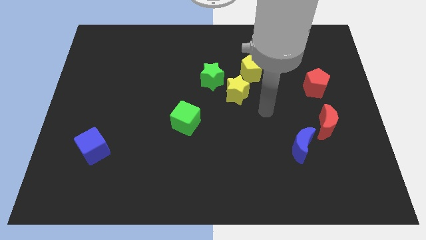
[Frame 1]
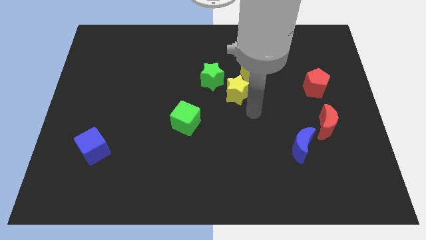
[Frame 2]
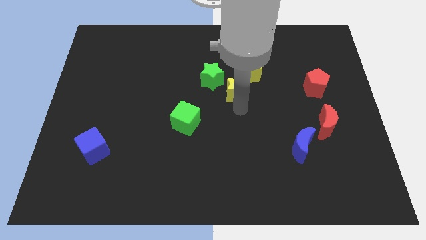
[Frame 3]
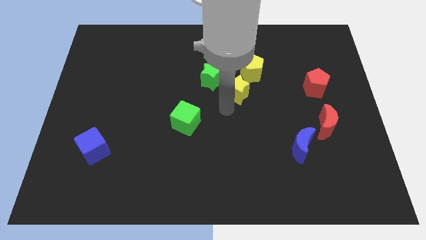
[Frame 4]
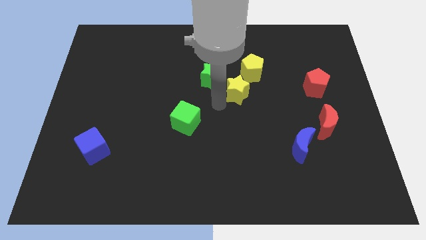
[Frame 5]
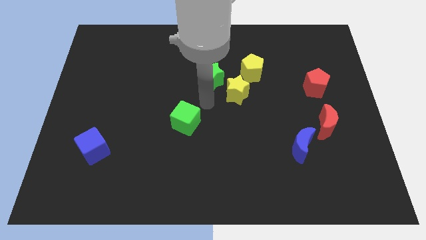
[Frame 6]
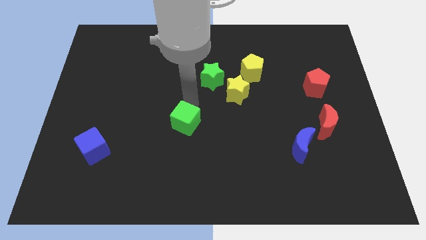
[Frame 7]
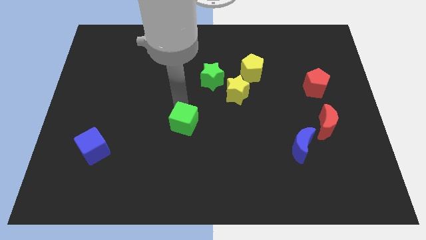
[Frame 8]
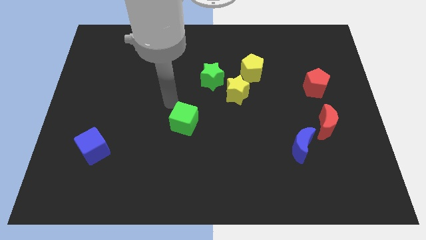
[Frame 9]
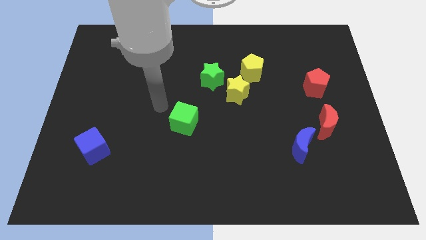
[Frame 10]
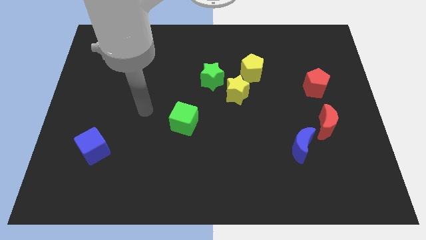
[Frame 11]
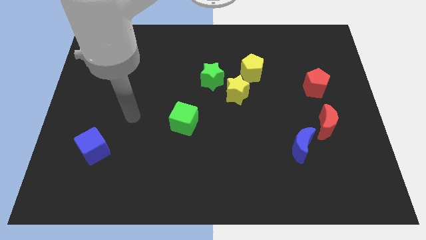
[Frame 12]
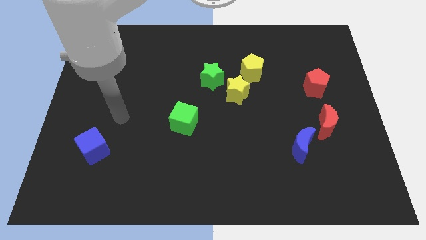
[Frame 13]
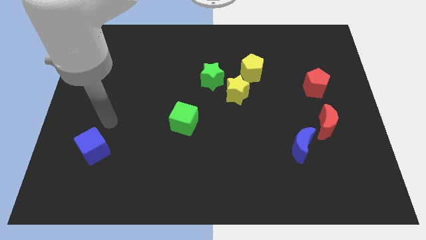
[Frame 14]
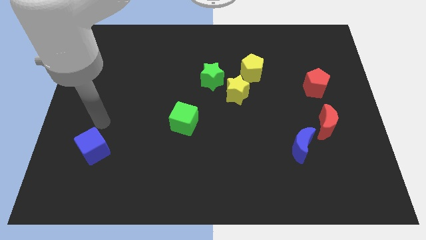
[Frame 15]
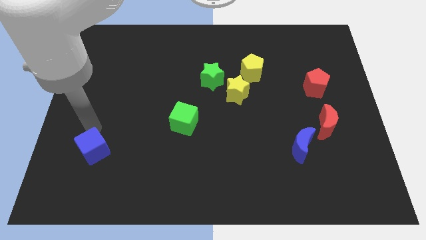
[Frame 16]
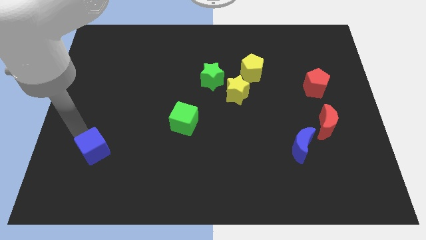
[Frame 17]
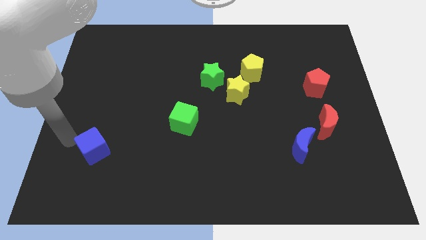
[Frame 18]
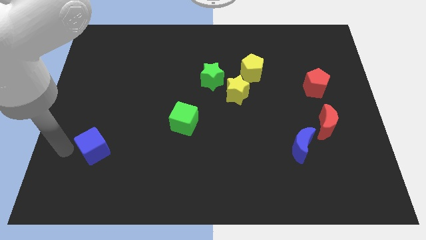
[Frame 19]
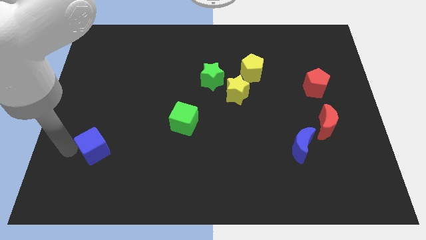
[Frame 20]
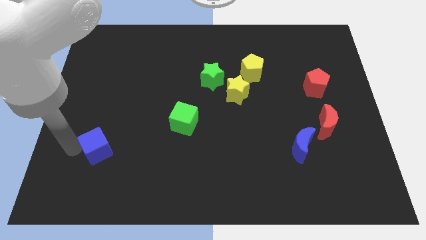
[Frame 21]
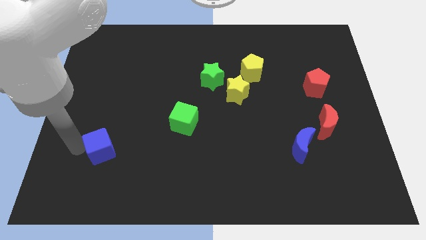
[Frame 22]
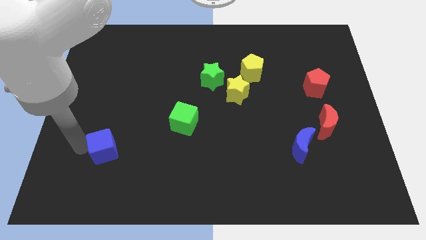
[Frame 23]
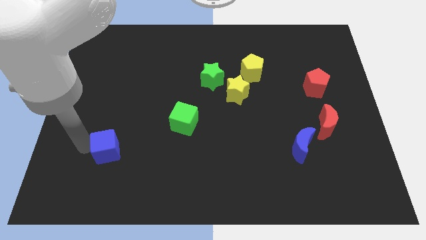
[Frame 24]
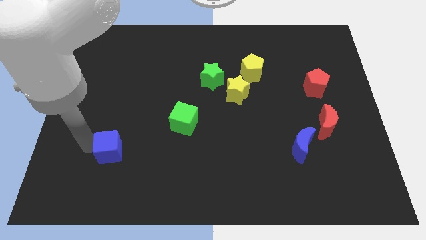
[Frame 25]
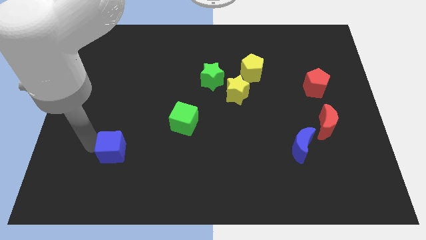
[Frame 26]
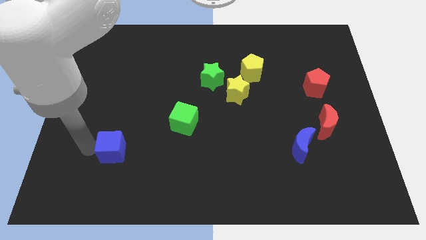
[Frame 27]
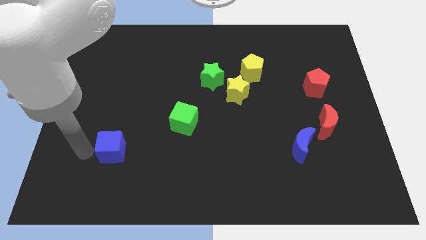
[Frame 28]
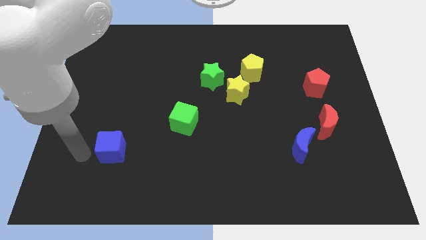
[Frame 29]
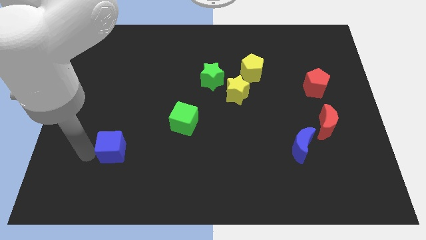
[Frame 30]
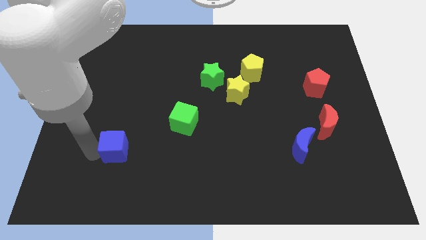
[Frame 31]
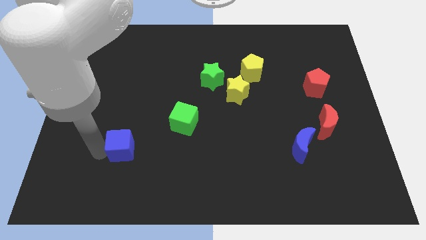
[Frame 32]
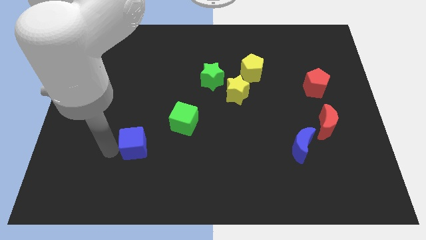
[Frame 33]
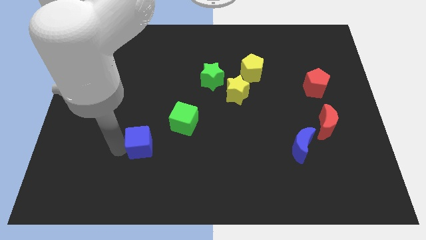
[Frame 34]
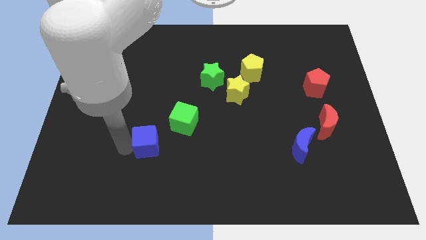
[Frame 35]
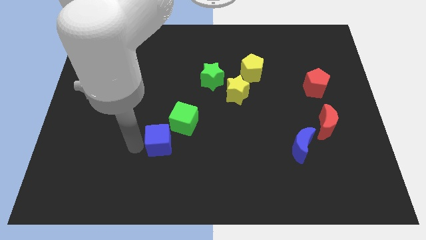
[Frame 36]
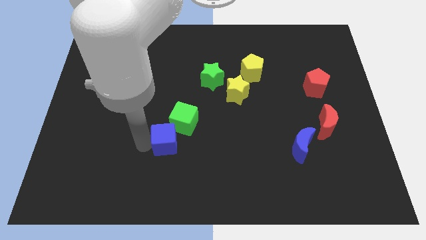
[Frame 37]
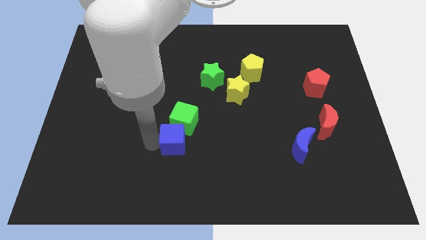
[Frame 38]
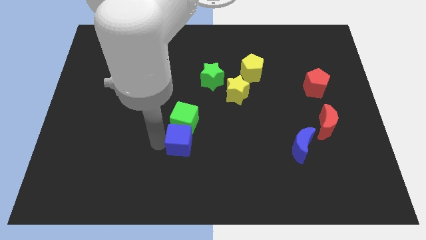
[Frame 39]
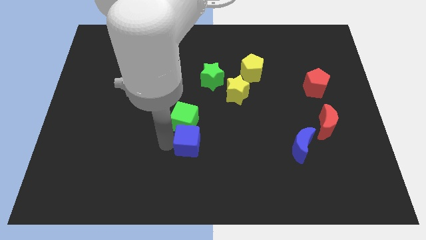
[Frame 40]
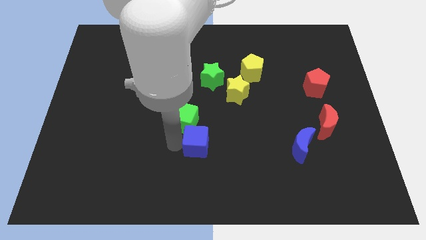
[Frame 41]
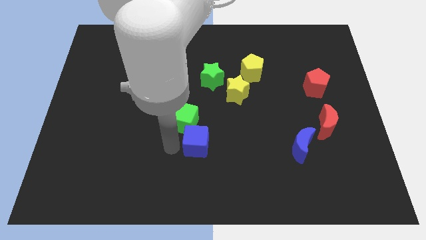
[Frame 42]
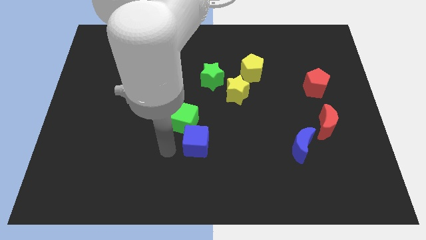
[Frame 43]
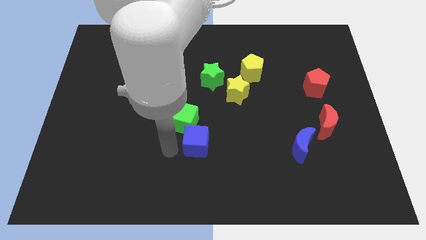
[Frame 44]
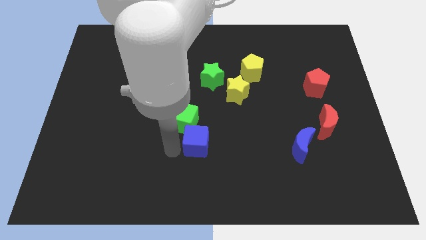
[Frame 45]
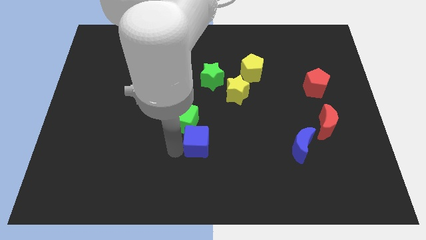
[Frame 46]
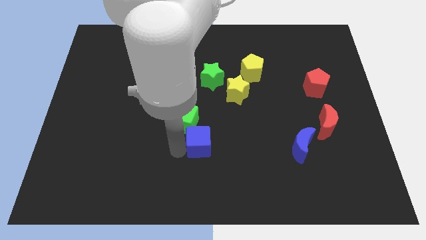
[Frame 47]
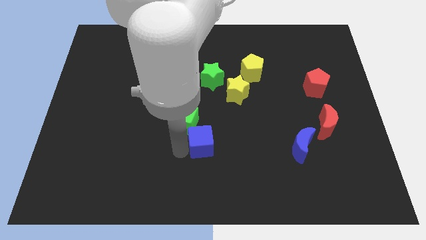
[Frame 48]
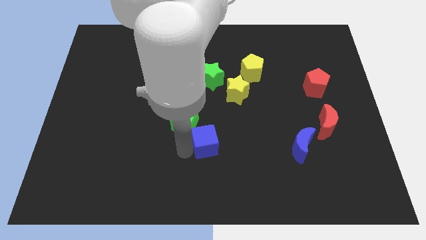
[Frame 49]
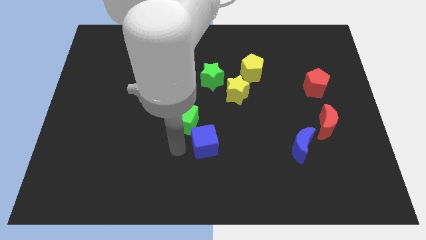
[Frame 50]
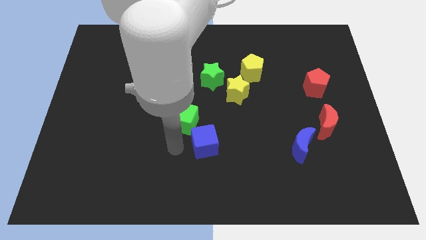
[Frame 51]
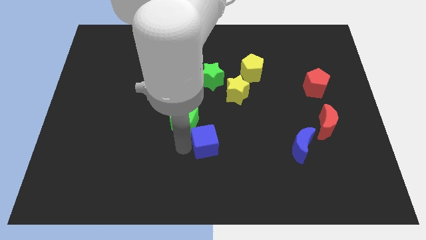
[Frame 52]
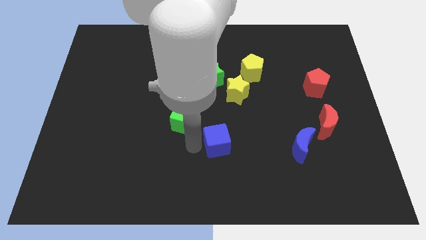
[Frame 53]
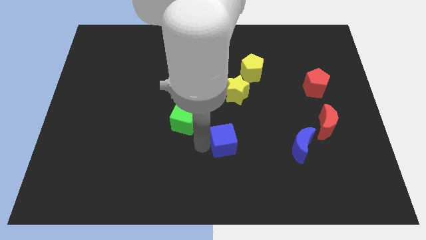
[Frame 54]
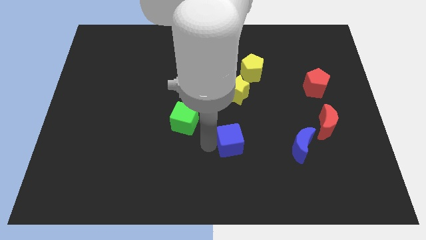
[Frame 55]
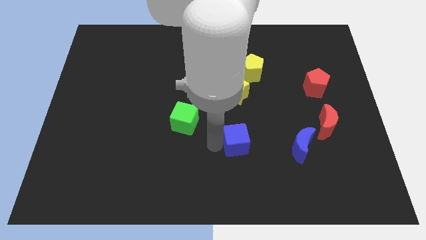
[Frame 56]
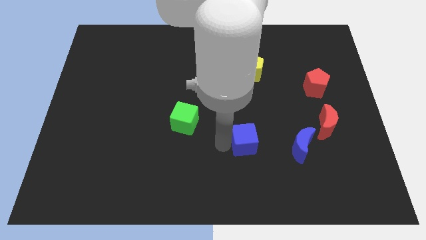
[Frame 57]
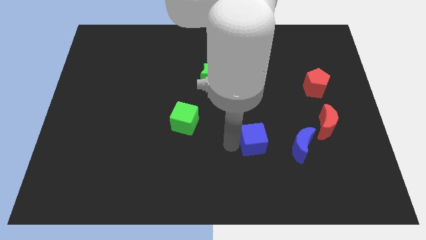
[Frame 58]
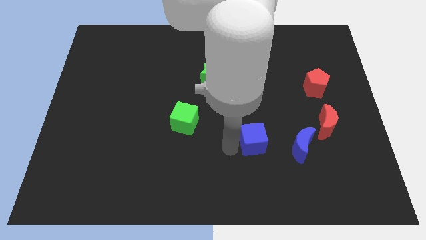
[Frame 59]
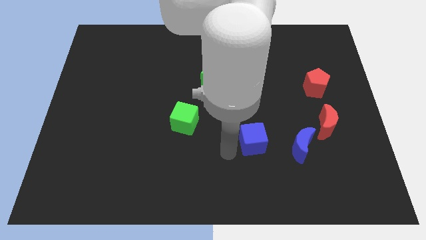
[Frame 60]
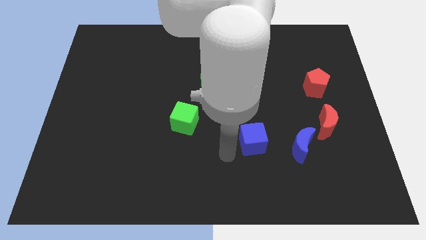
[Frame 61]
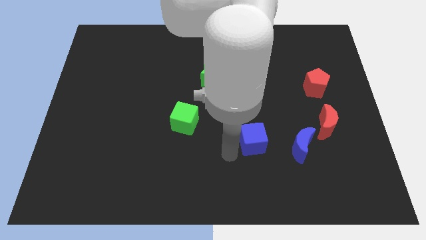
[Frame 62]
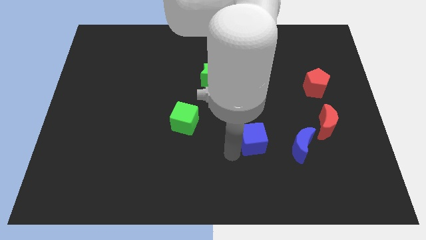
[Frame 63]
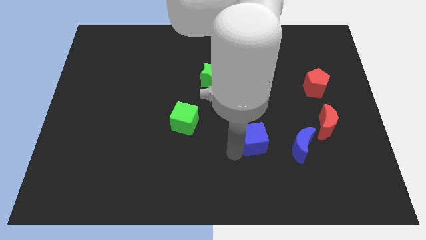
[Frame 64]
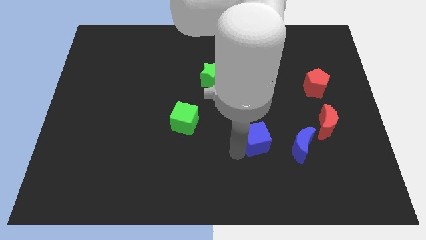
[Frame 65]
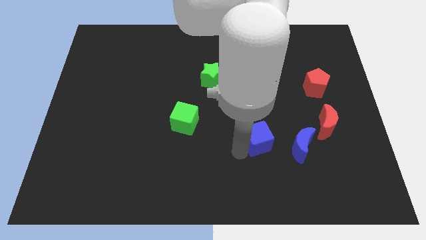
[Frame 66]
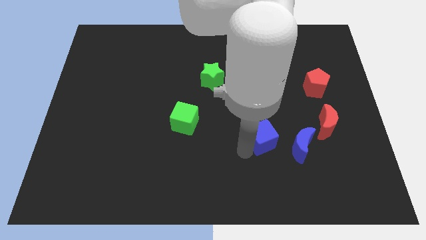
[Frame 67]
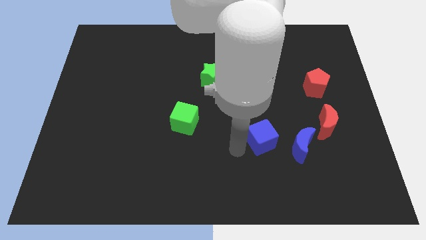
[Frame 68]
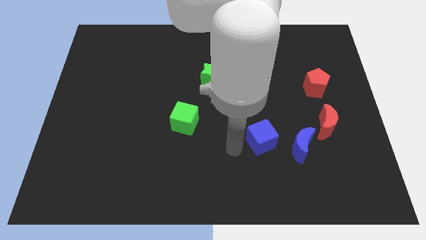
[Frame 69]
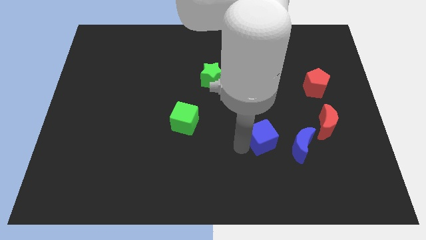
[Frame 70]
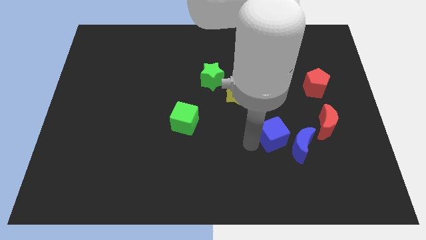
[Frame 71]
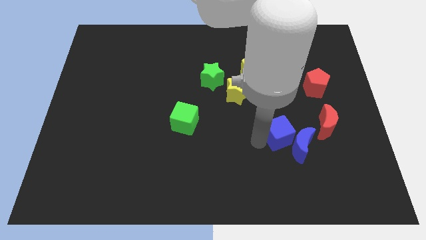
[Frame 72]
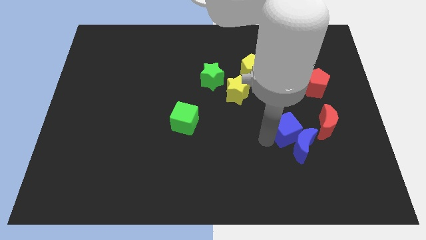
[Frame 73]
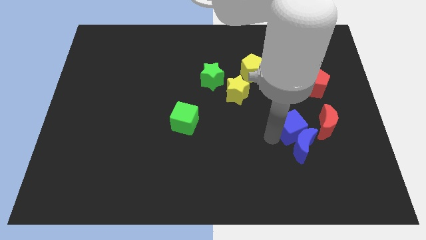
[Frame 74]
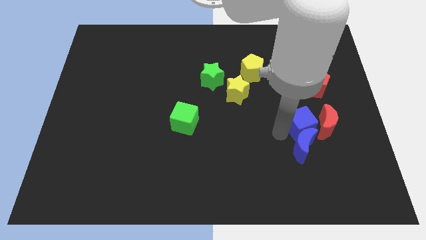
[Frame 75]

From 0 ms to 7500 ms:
slide the blue cube close to the red moon

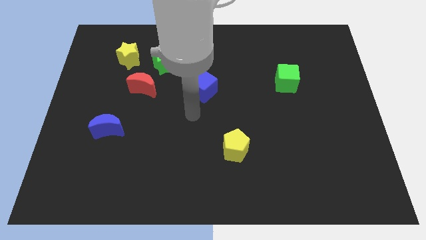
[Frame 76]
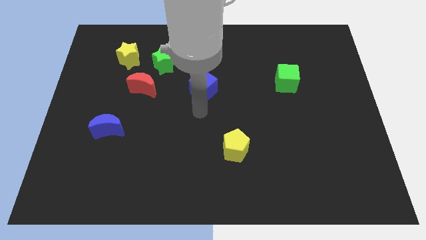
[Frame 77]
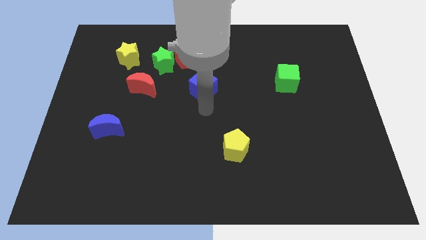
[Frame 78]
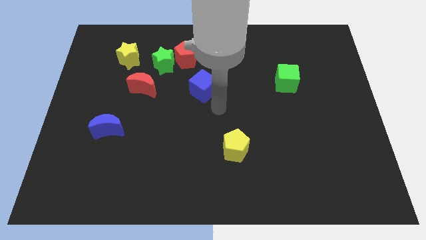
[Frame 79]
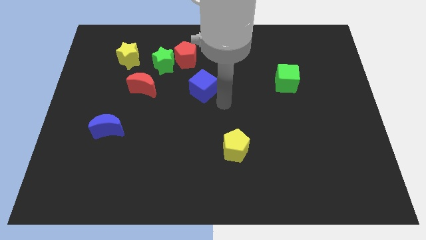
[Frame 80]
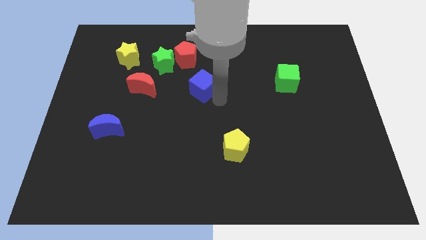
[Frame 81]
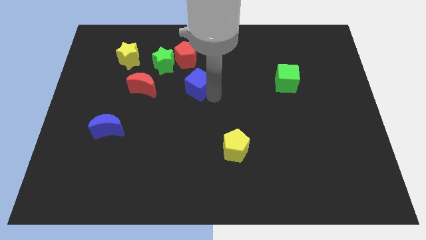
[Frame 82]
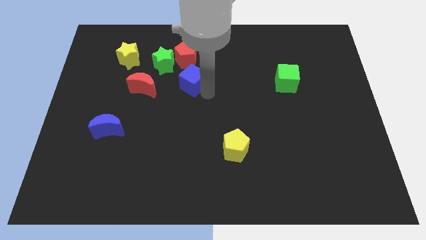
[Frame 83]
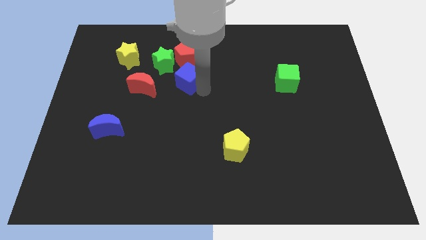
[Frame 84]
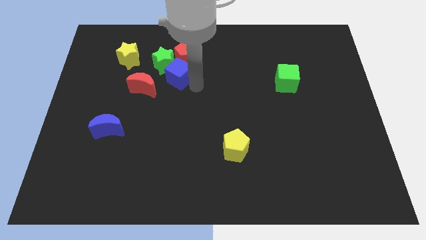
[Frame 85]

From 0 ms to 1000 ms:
put the blue cube next to the green star
